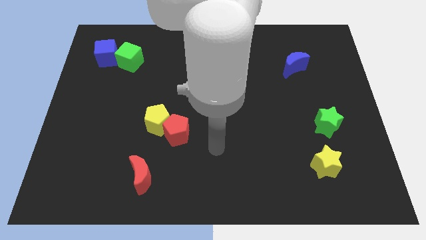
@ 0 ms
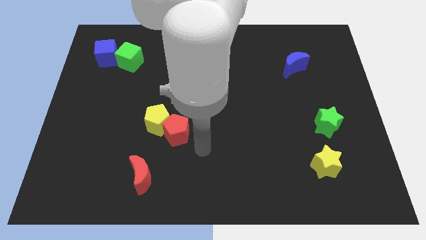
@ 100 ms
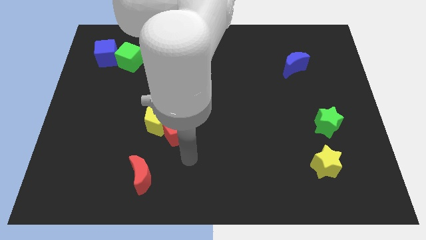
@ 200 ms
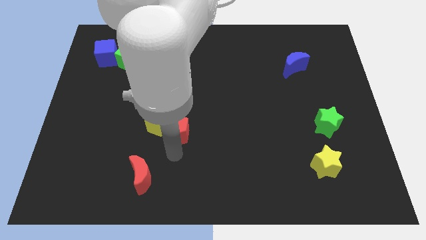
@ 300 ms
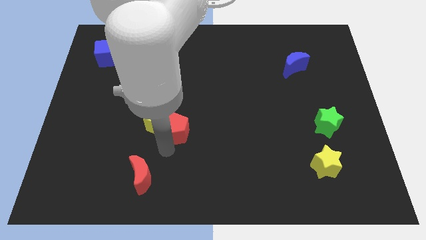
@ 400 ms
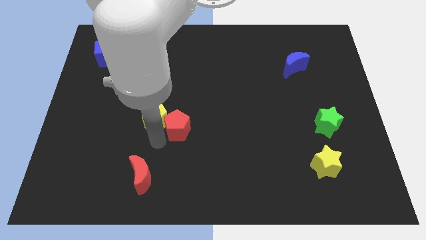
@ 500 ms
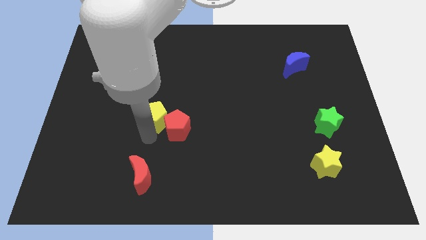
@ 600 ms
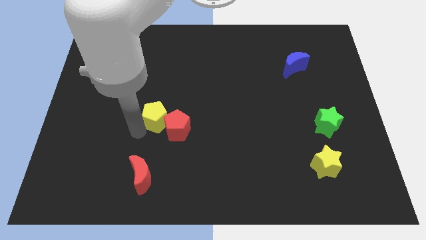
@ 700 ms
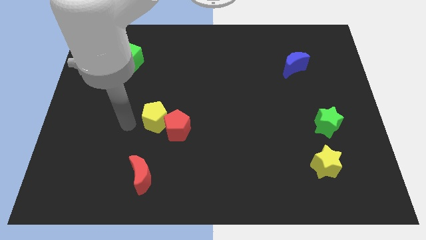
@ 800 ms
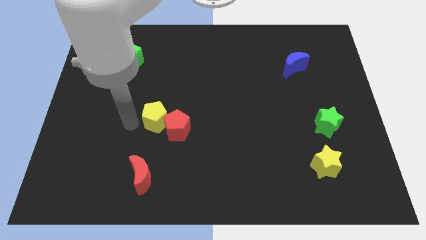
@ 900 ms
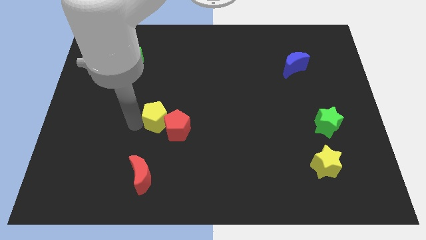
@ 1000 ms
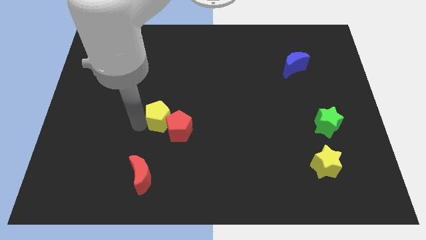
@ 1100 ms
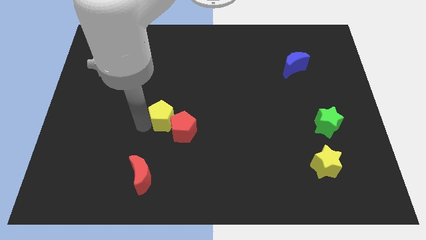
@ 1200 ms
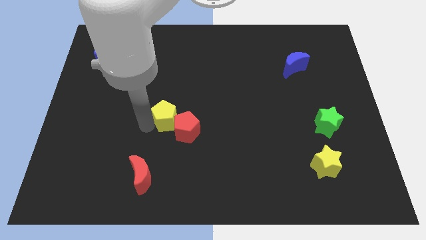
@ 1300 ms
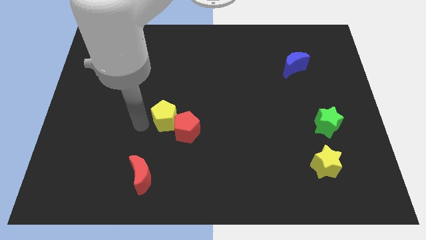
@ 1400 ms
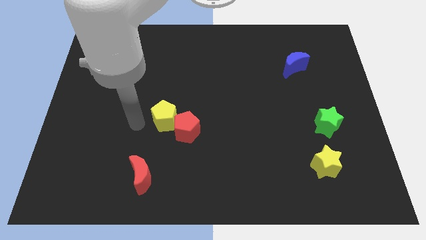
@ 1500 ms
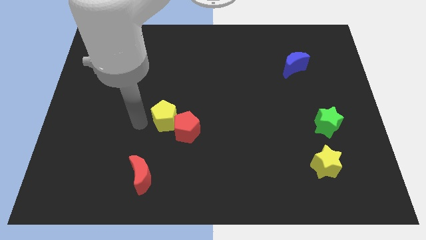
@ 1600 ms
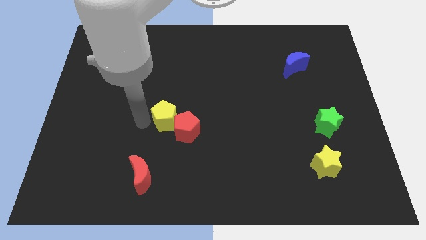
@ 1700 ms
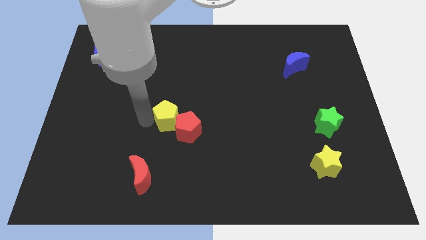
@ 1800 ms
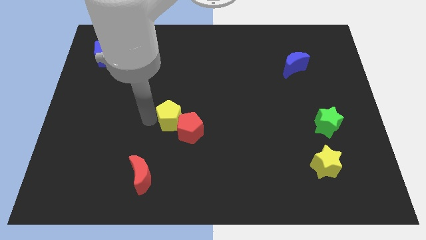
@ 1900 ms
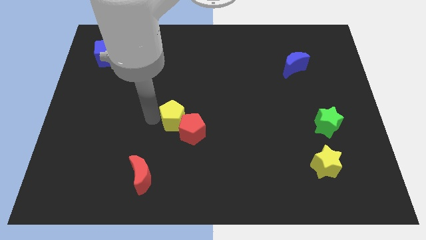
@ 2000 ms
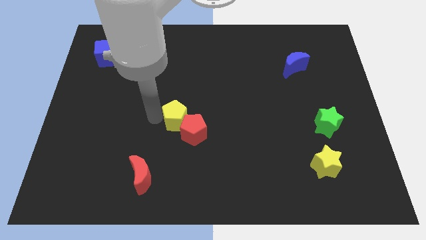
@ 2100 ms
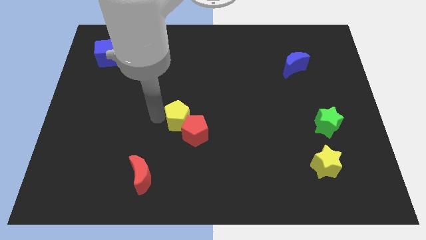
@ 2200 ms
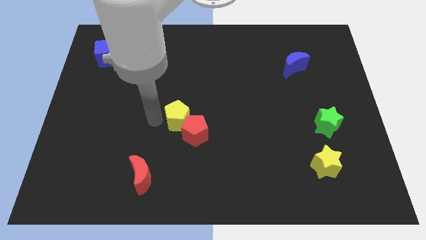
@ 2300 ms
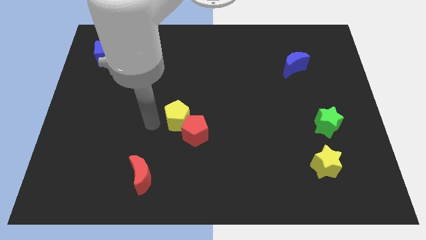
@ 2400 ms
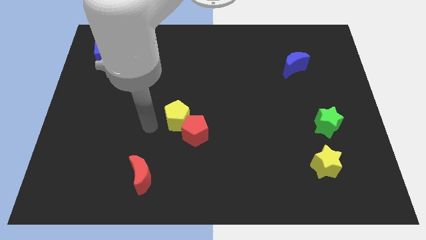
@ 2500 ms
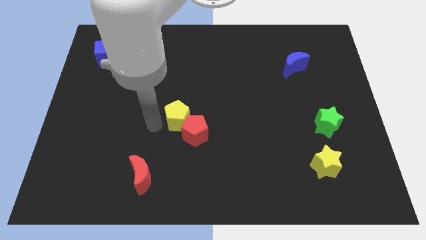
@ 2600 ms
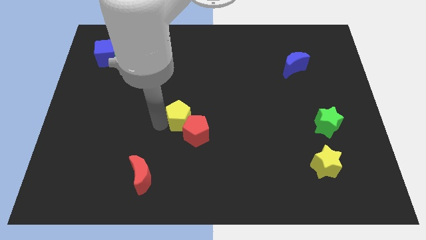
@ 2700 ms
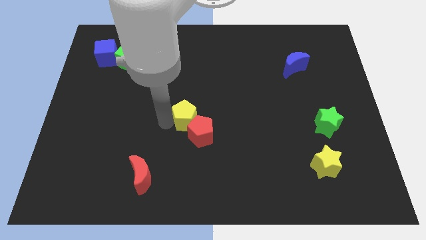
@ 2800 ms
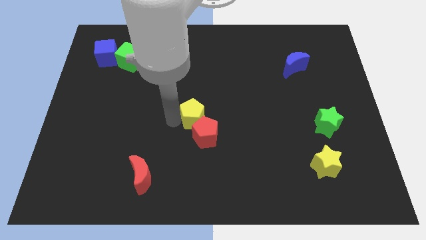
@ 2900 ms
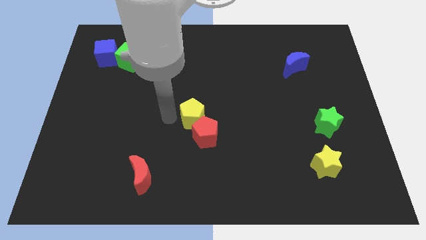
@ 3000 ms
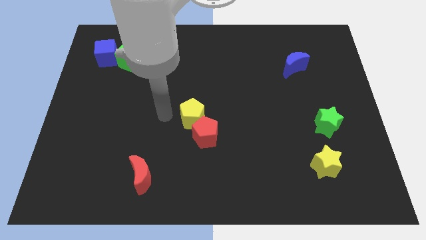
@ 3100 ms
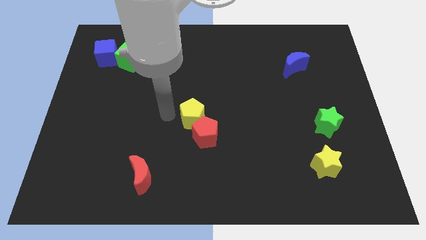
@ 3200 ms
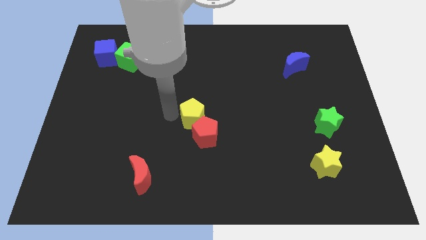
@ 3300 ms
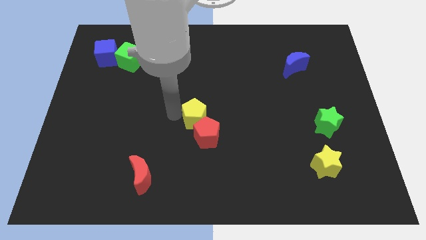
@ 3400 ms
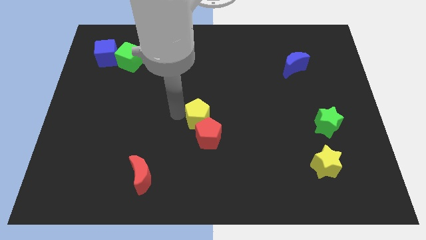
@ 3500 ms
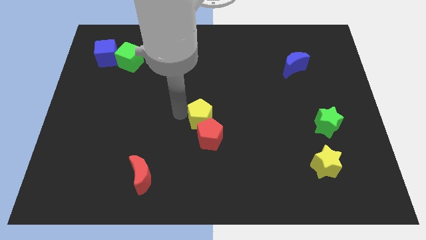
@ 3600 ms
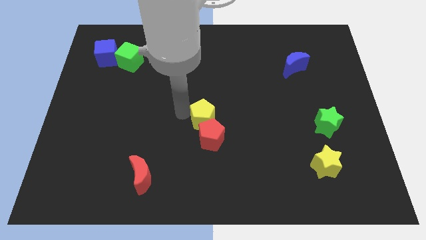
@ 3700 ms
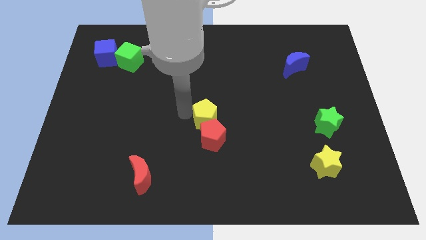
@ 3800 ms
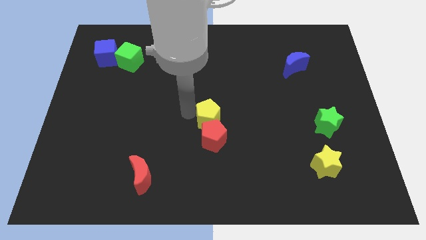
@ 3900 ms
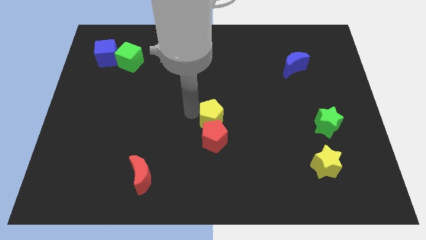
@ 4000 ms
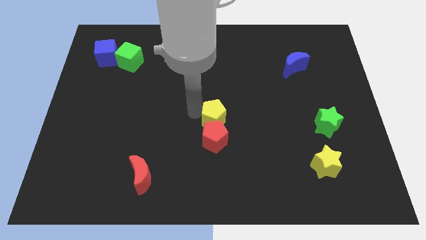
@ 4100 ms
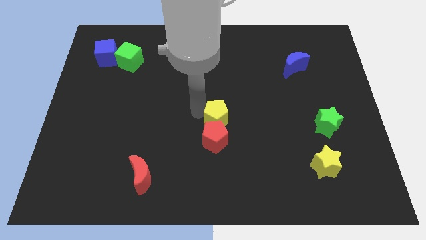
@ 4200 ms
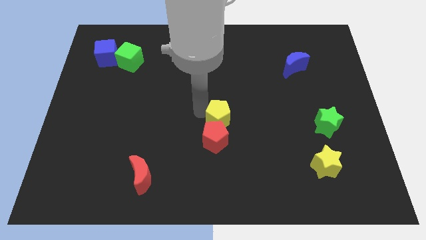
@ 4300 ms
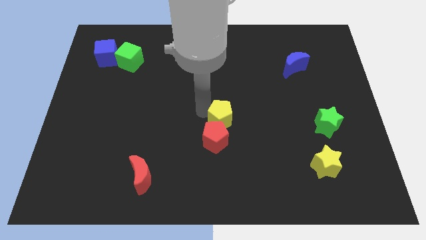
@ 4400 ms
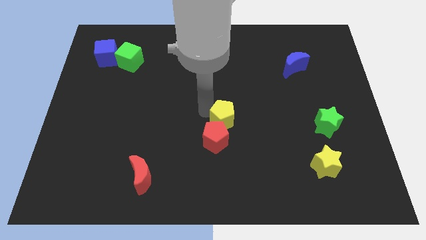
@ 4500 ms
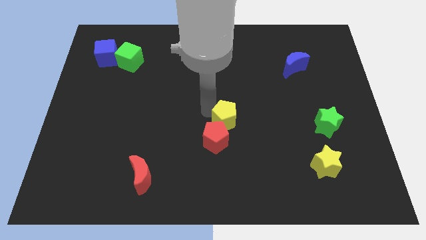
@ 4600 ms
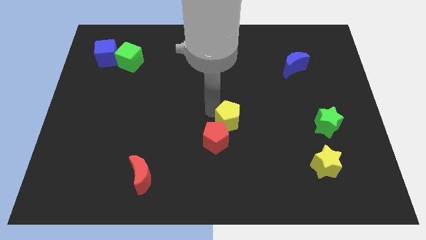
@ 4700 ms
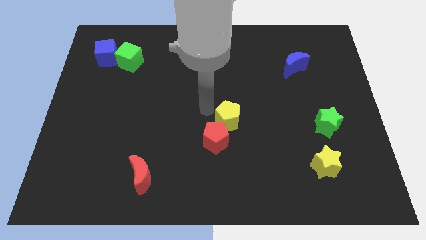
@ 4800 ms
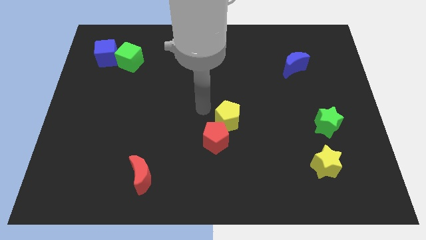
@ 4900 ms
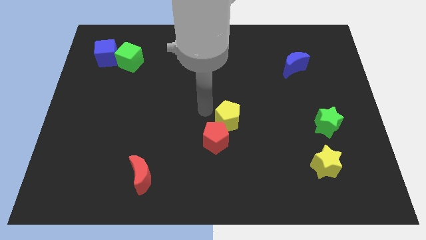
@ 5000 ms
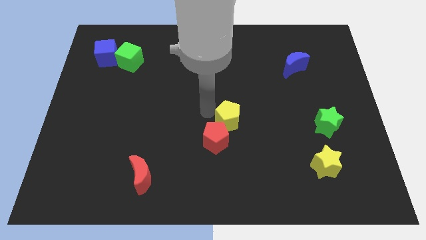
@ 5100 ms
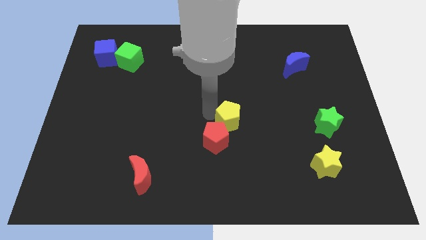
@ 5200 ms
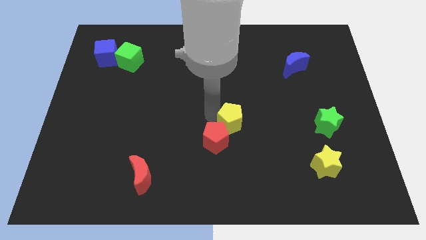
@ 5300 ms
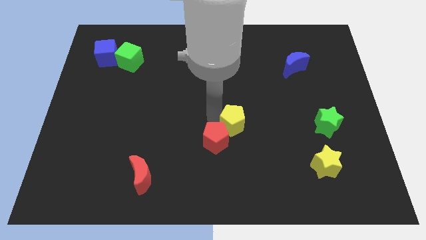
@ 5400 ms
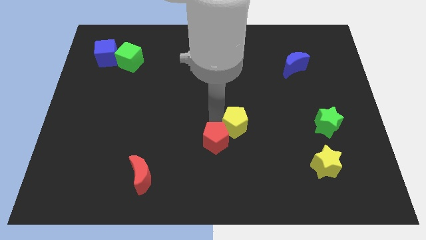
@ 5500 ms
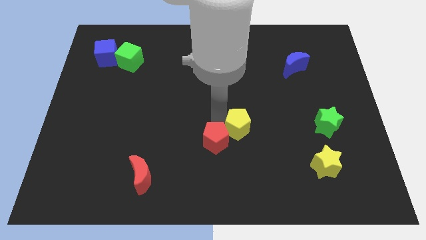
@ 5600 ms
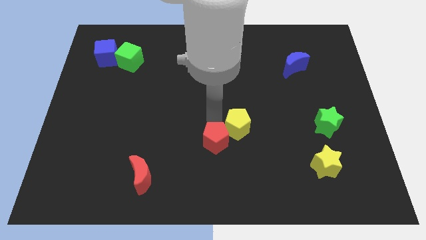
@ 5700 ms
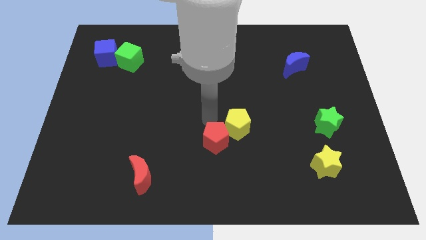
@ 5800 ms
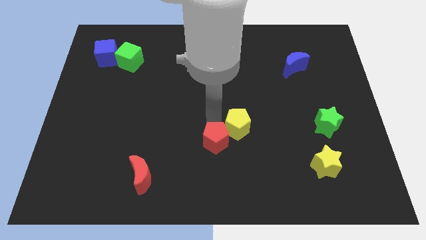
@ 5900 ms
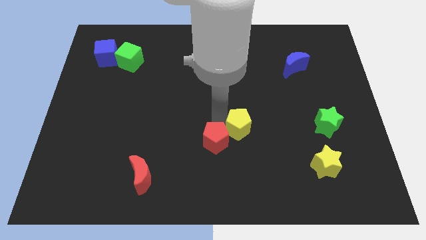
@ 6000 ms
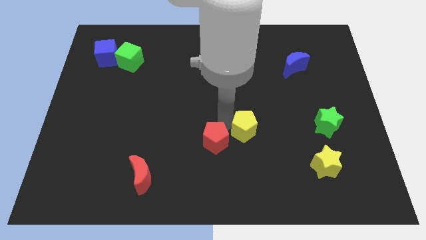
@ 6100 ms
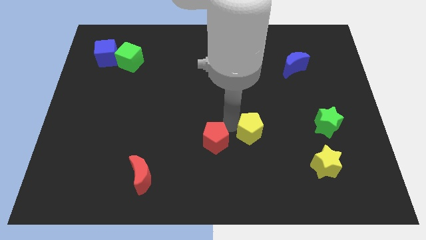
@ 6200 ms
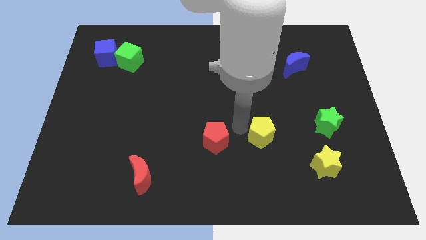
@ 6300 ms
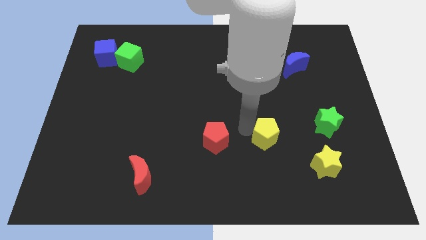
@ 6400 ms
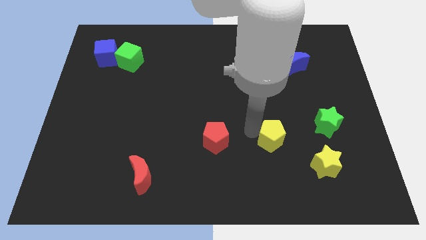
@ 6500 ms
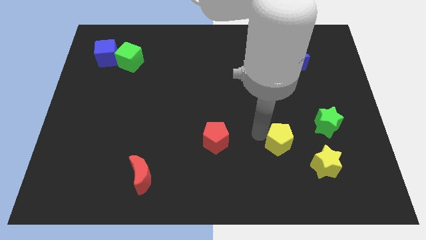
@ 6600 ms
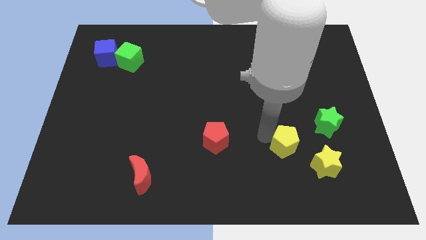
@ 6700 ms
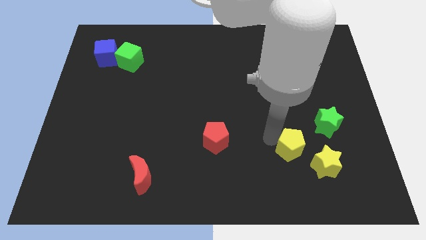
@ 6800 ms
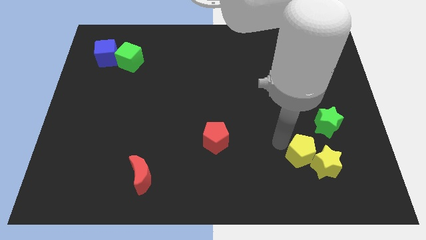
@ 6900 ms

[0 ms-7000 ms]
move the yellow pentagon close to the yellow star

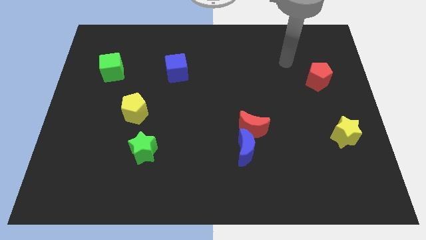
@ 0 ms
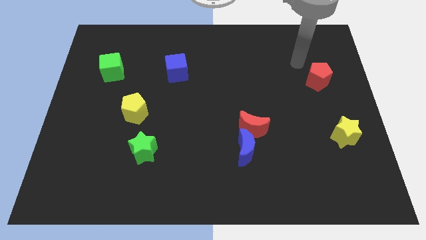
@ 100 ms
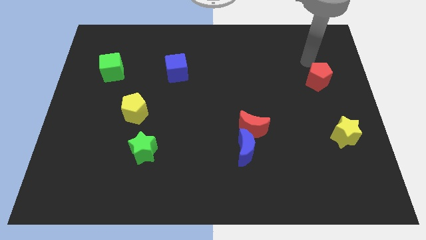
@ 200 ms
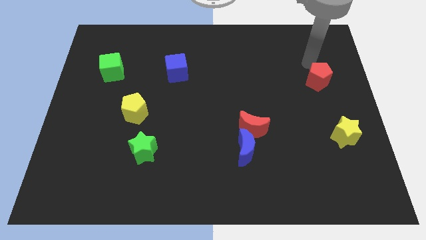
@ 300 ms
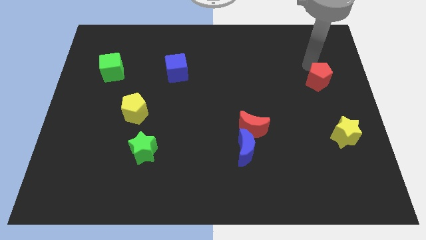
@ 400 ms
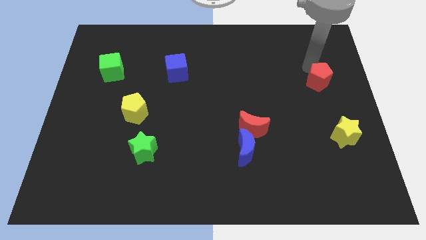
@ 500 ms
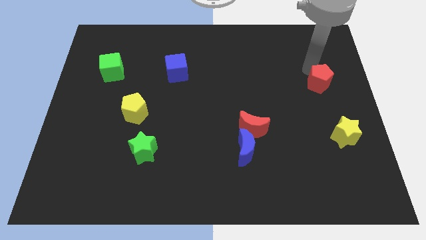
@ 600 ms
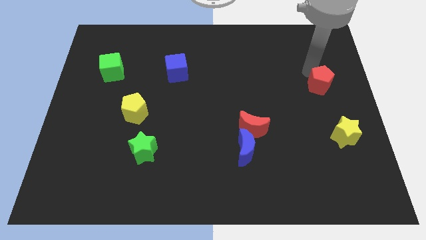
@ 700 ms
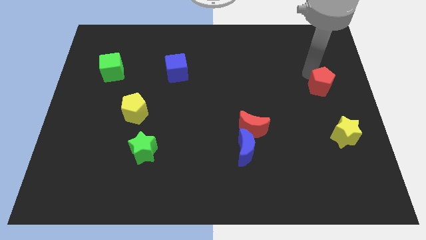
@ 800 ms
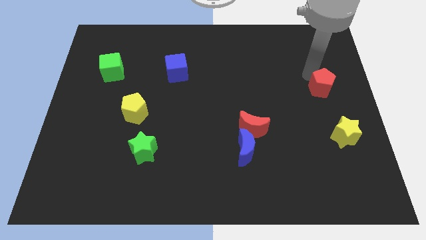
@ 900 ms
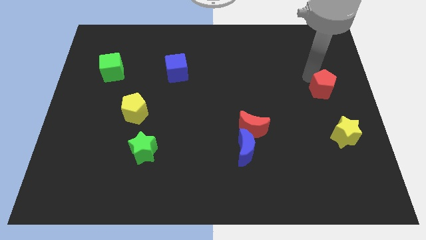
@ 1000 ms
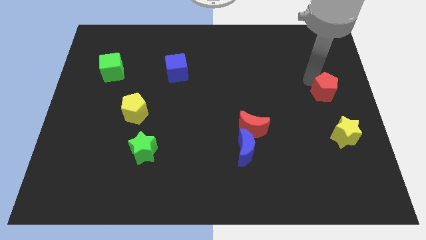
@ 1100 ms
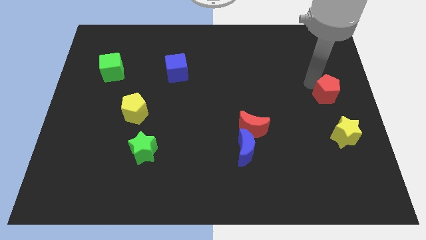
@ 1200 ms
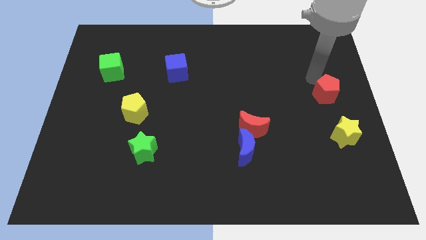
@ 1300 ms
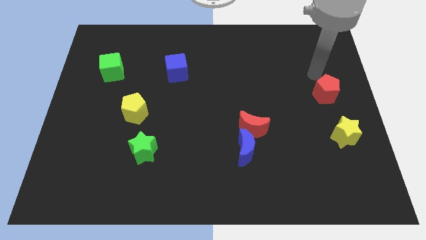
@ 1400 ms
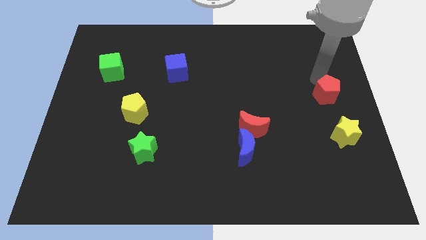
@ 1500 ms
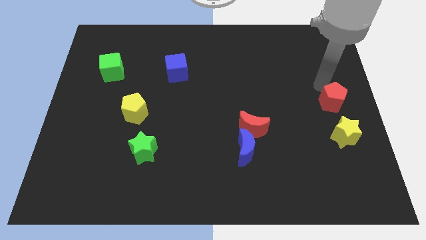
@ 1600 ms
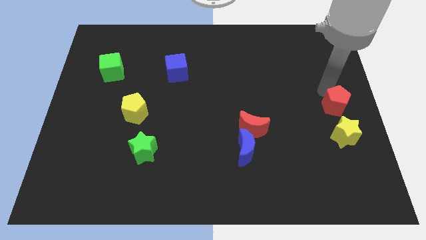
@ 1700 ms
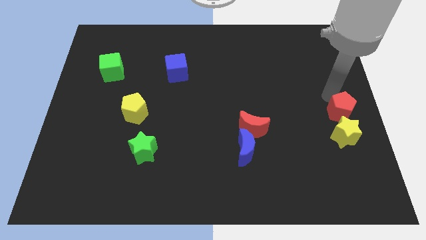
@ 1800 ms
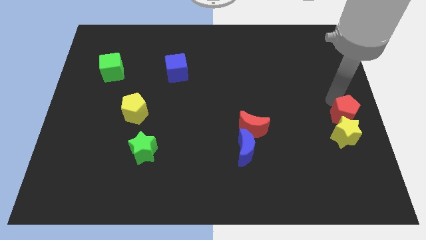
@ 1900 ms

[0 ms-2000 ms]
slide the red pentagon towards the yellow star
